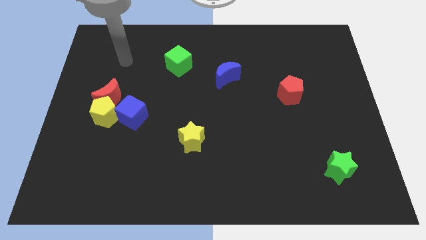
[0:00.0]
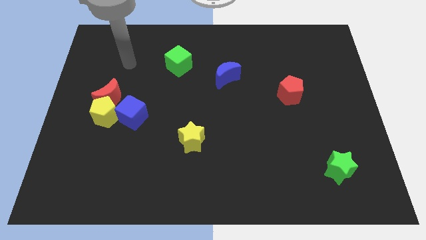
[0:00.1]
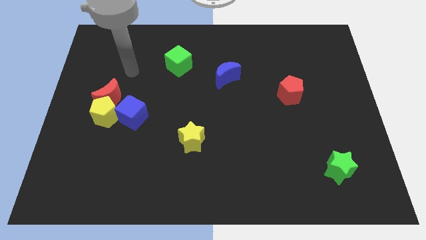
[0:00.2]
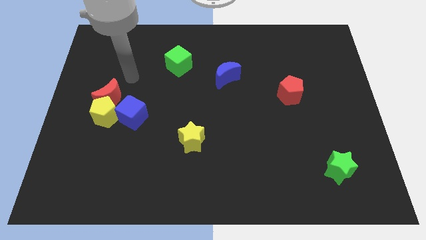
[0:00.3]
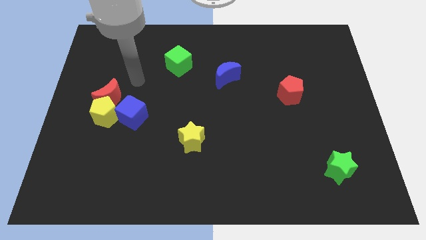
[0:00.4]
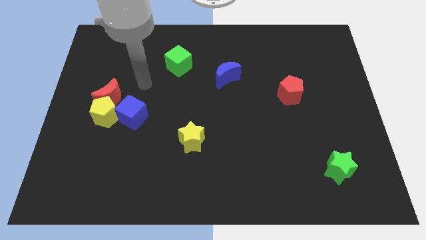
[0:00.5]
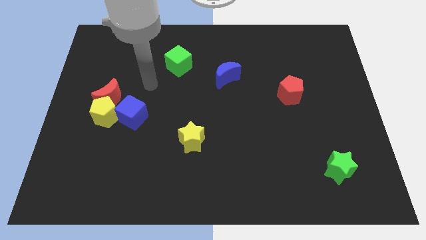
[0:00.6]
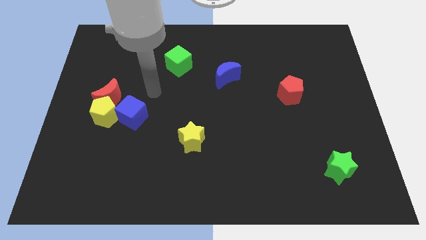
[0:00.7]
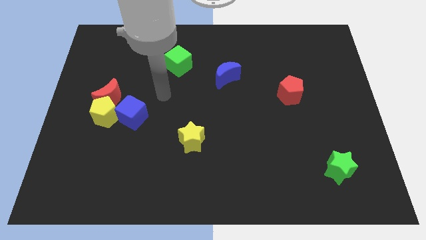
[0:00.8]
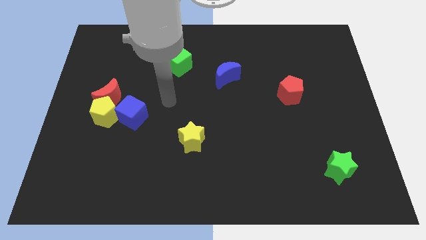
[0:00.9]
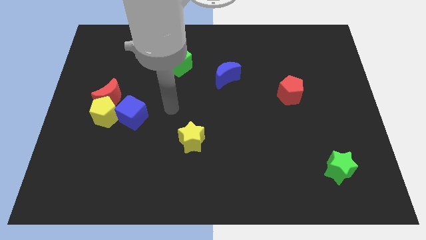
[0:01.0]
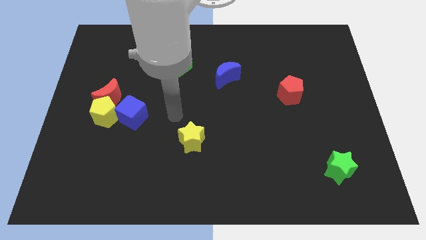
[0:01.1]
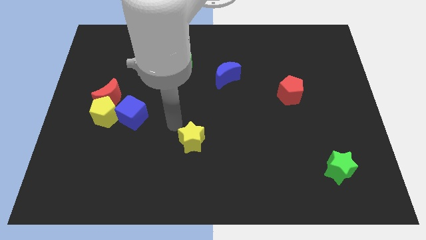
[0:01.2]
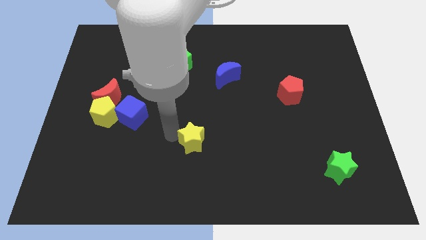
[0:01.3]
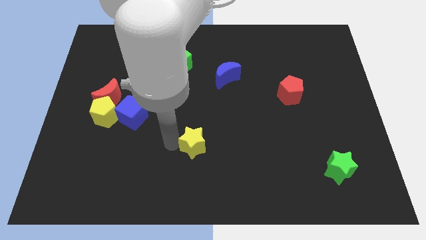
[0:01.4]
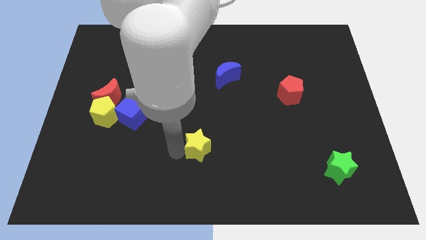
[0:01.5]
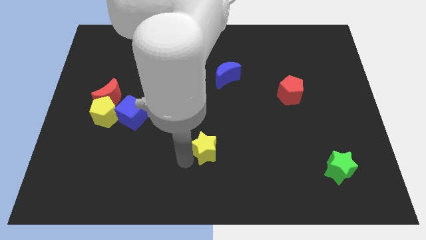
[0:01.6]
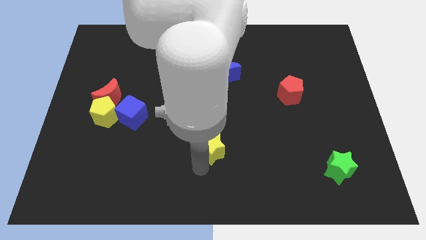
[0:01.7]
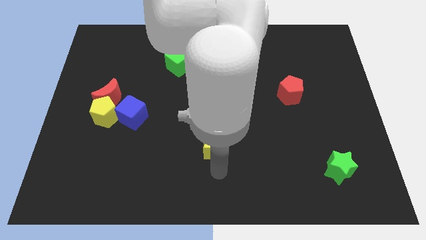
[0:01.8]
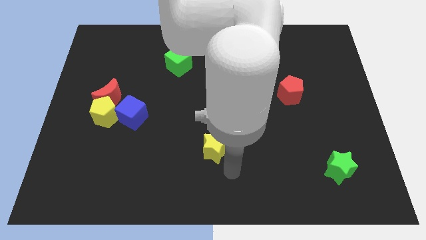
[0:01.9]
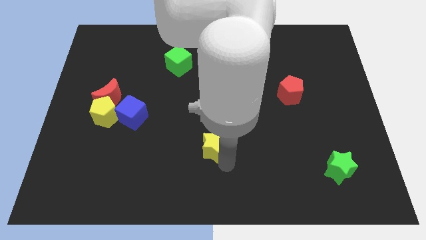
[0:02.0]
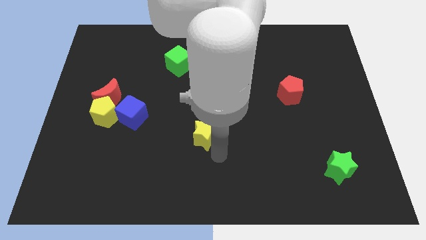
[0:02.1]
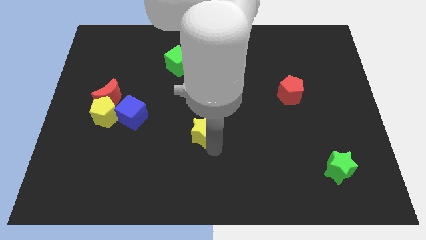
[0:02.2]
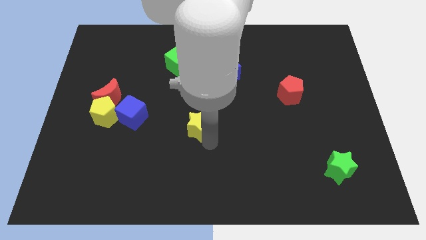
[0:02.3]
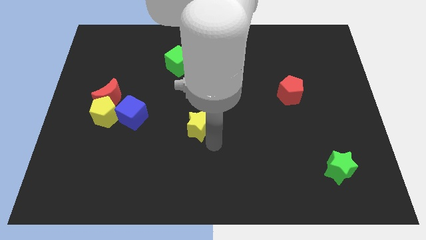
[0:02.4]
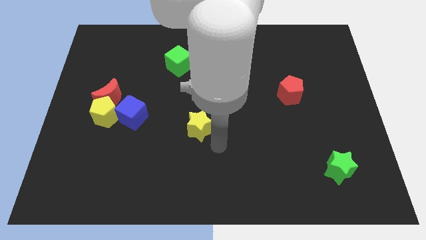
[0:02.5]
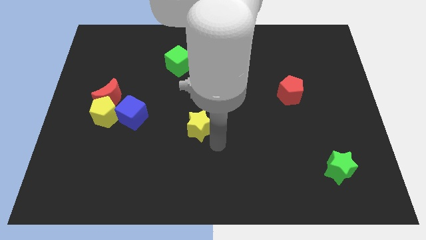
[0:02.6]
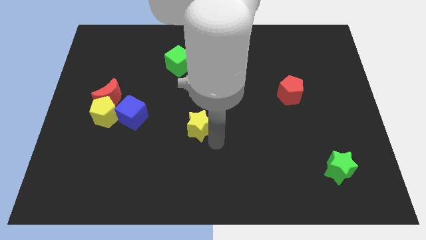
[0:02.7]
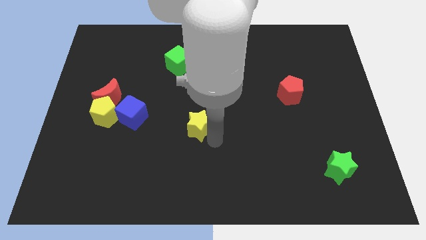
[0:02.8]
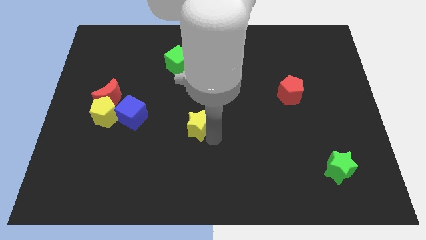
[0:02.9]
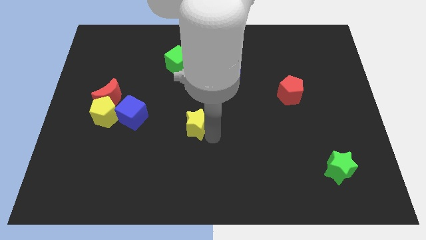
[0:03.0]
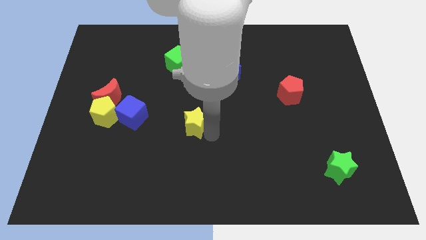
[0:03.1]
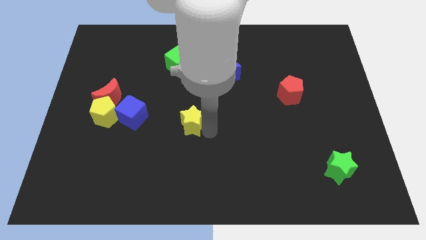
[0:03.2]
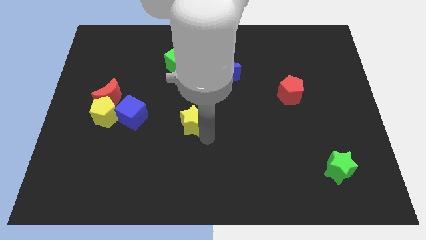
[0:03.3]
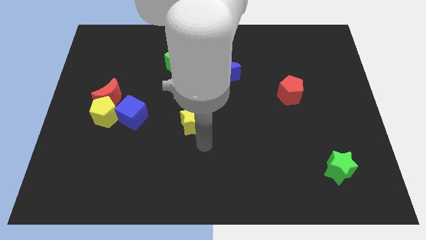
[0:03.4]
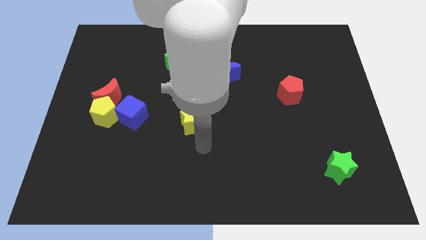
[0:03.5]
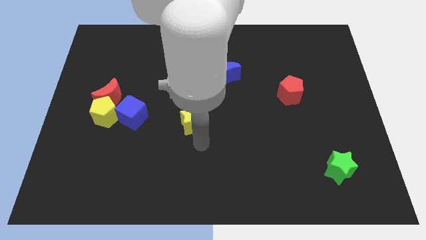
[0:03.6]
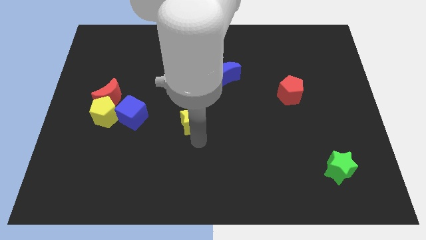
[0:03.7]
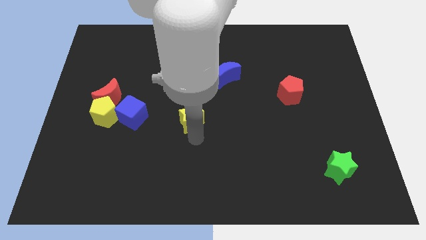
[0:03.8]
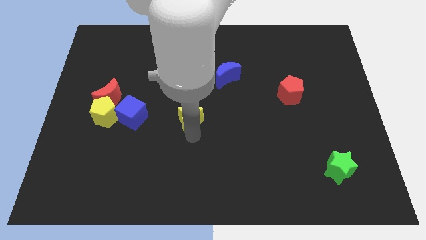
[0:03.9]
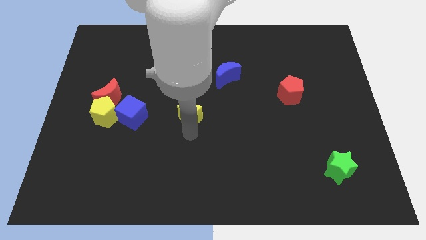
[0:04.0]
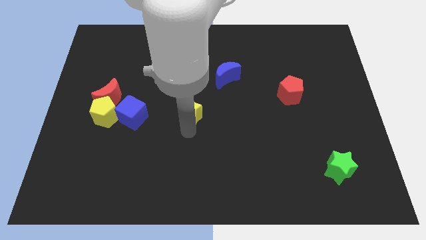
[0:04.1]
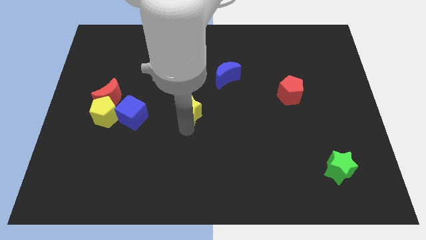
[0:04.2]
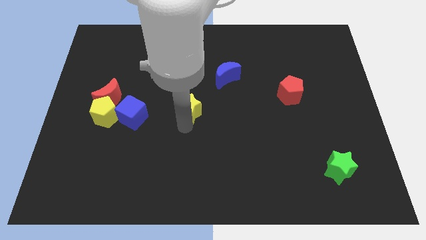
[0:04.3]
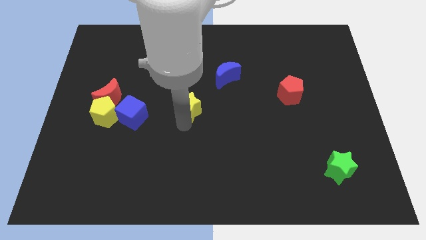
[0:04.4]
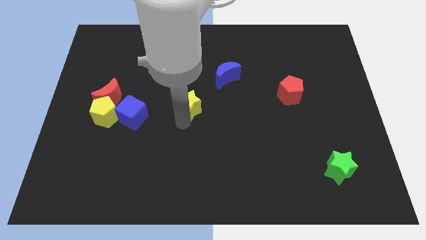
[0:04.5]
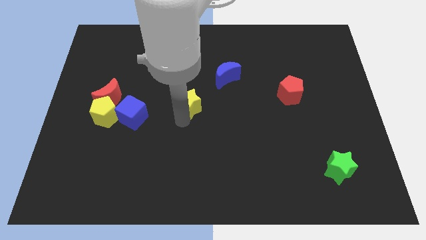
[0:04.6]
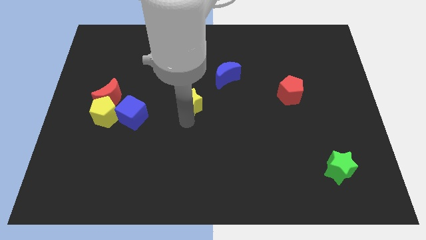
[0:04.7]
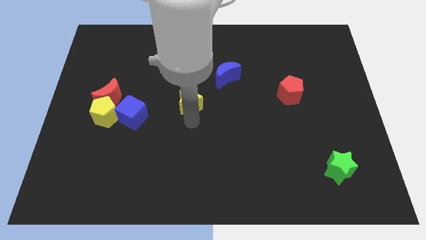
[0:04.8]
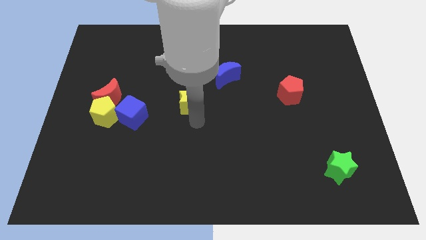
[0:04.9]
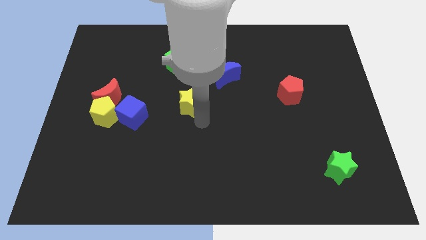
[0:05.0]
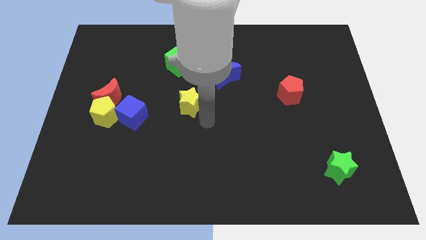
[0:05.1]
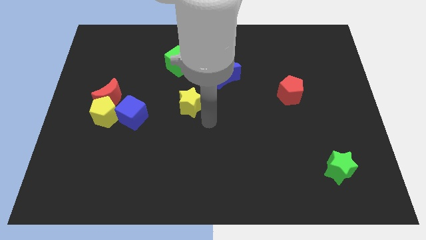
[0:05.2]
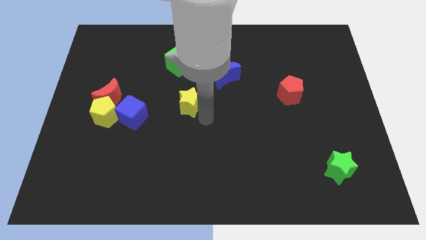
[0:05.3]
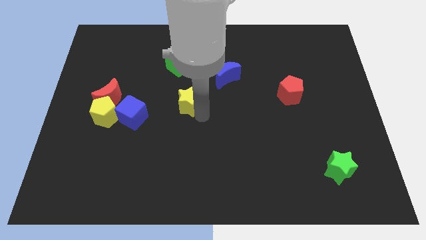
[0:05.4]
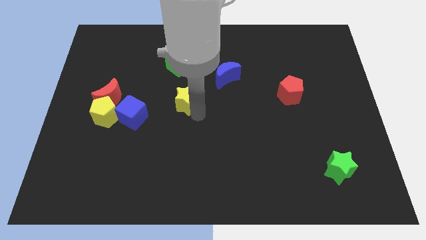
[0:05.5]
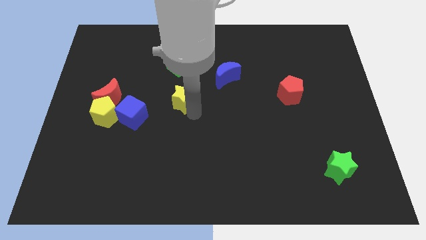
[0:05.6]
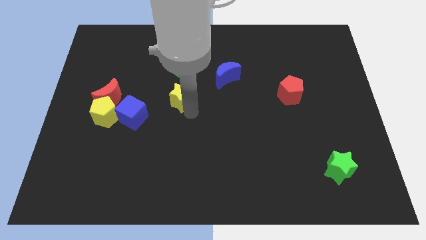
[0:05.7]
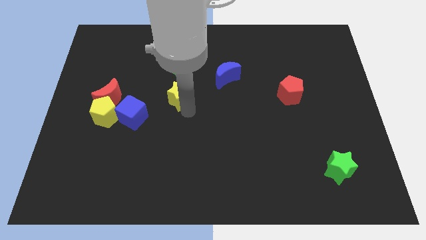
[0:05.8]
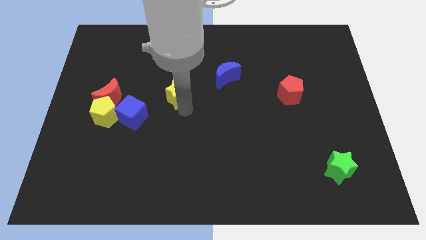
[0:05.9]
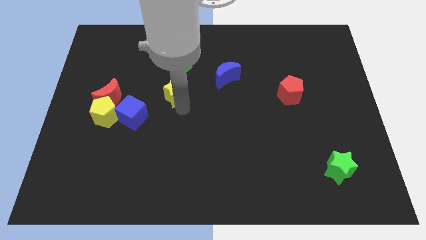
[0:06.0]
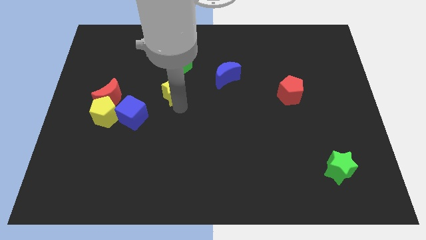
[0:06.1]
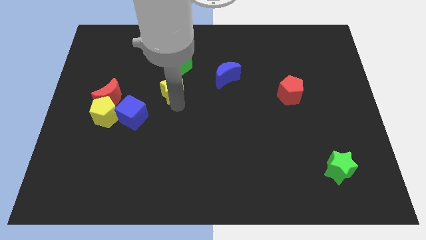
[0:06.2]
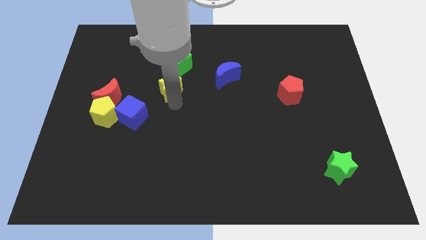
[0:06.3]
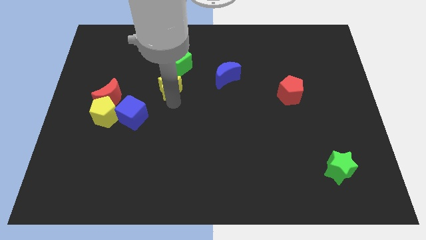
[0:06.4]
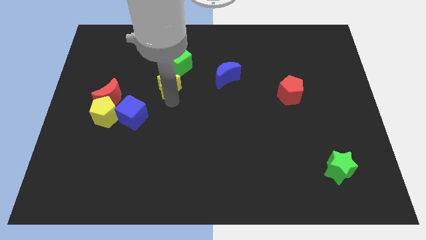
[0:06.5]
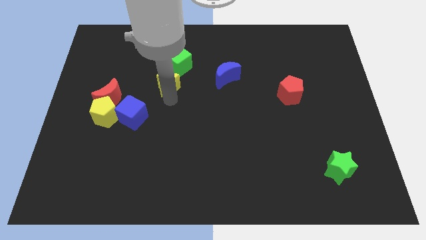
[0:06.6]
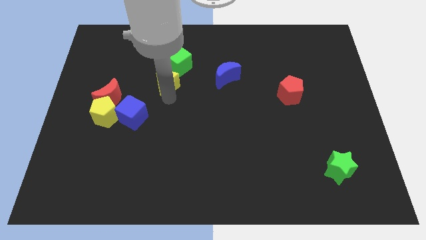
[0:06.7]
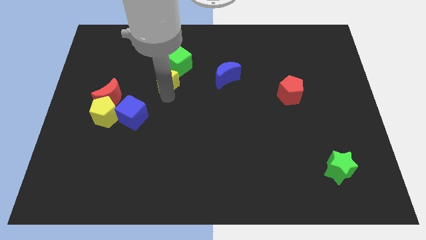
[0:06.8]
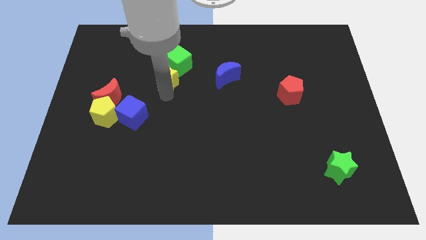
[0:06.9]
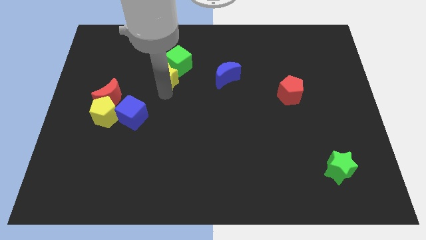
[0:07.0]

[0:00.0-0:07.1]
slide the yellow star next to the green cube

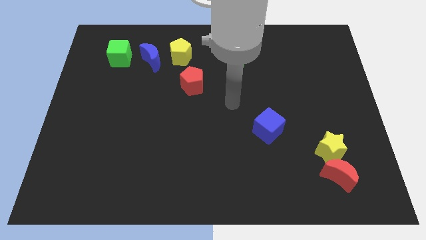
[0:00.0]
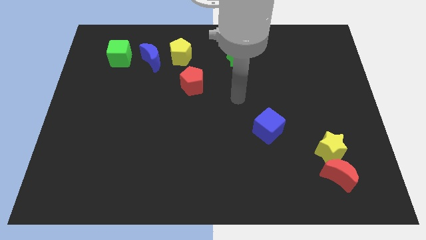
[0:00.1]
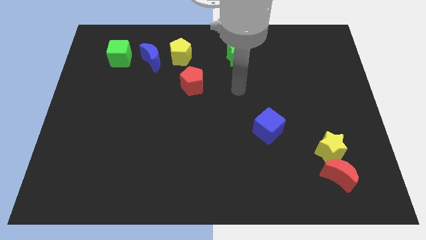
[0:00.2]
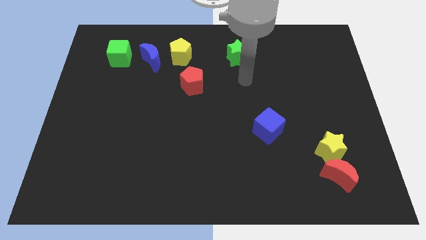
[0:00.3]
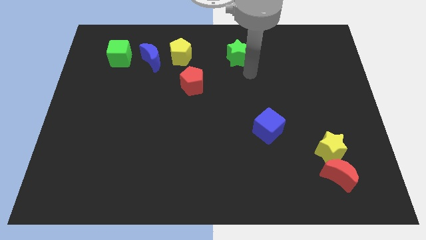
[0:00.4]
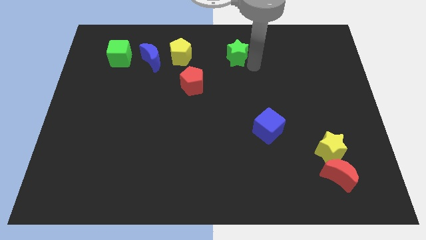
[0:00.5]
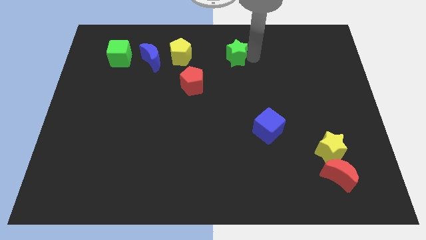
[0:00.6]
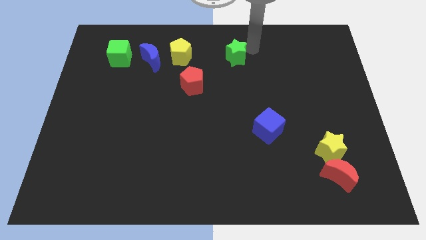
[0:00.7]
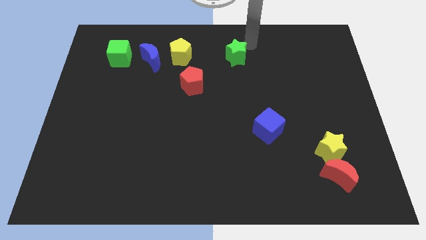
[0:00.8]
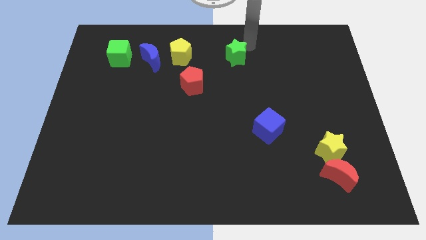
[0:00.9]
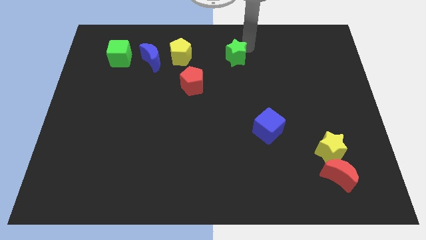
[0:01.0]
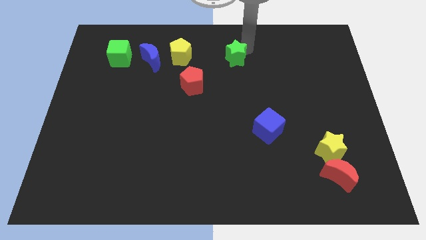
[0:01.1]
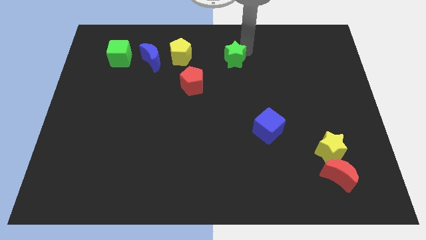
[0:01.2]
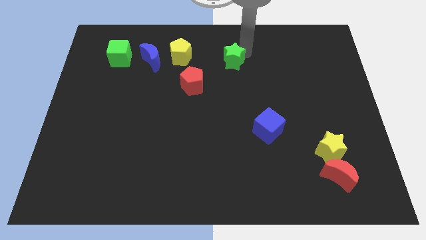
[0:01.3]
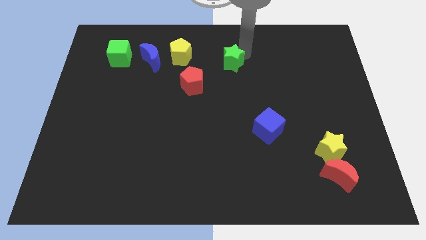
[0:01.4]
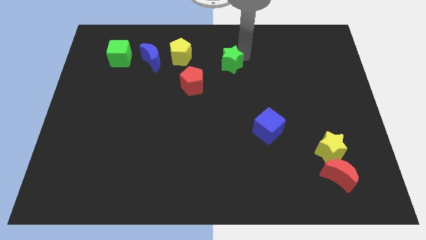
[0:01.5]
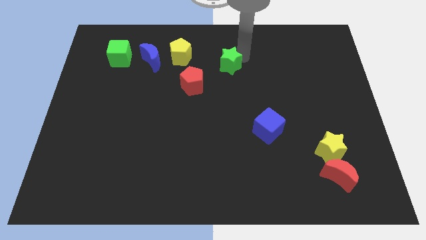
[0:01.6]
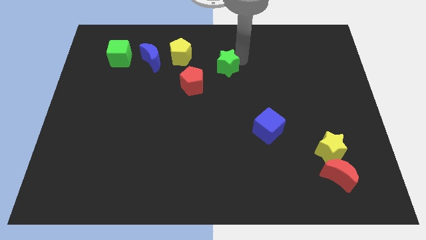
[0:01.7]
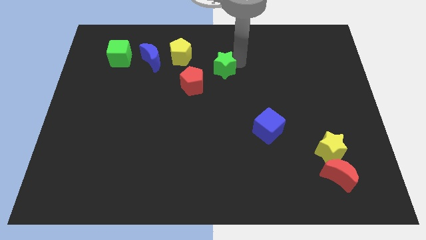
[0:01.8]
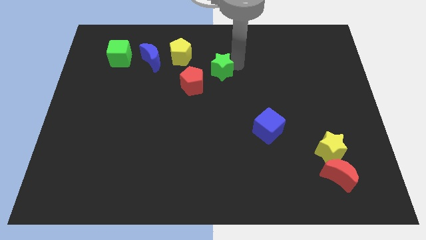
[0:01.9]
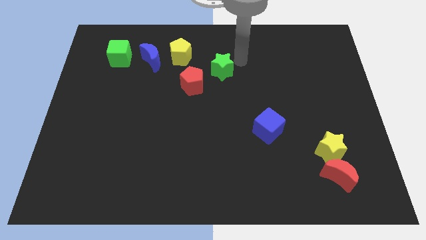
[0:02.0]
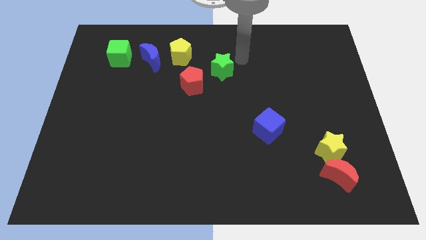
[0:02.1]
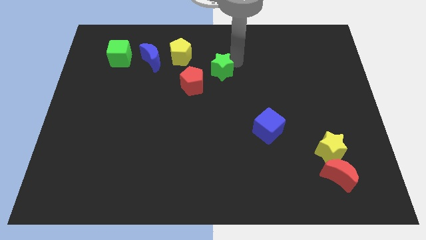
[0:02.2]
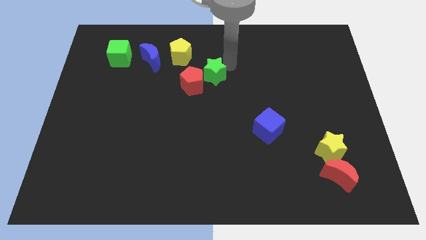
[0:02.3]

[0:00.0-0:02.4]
move the green star towards the red pentagon
